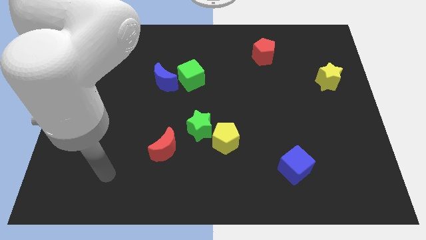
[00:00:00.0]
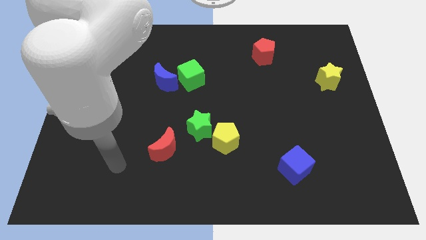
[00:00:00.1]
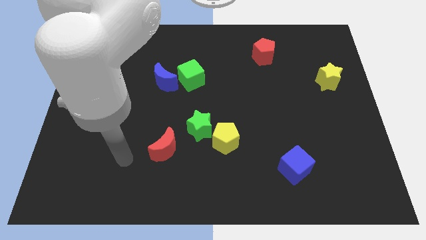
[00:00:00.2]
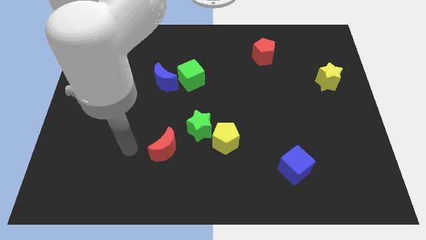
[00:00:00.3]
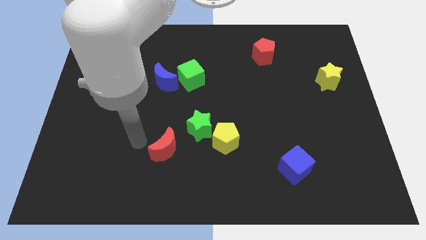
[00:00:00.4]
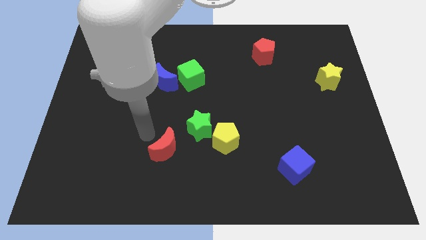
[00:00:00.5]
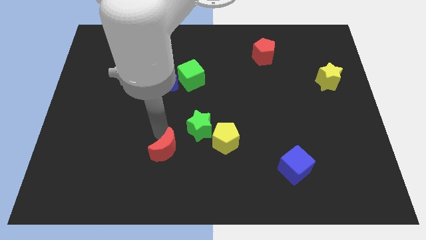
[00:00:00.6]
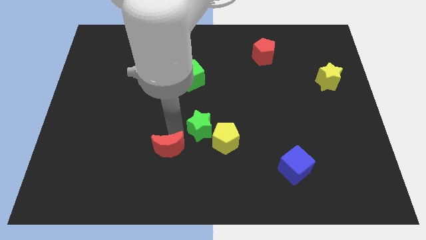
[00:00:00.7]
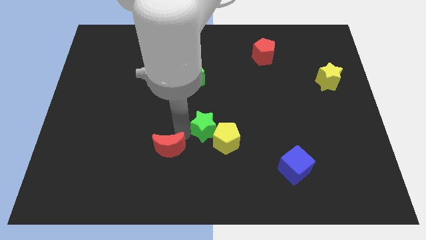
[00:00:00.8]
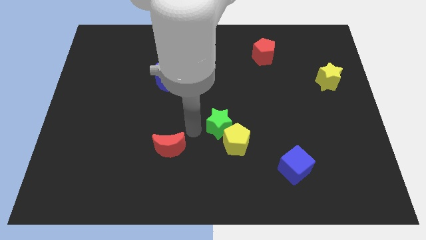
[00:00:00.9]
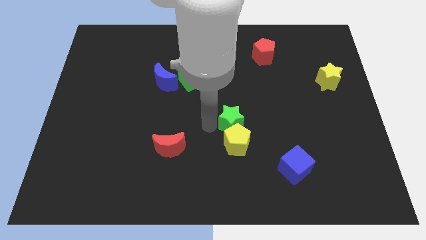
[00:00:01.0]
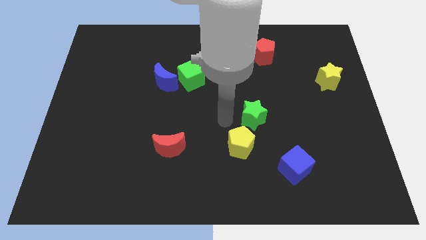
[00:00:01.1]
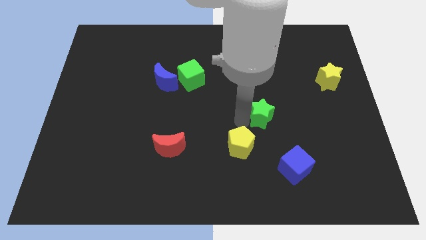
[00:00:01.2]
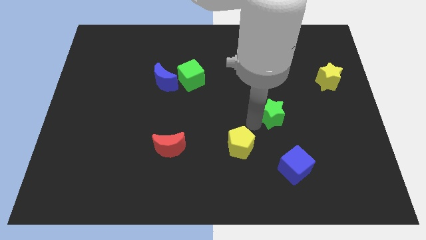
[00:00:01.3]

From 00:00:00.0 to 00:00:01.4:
move the yellow pentagon away from the green star

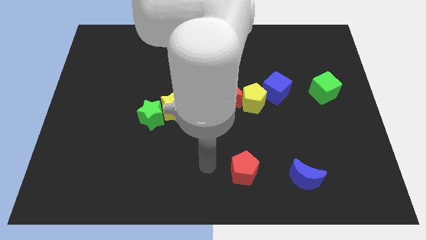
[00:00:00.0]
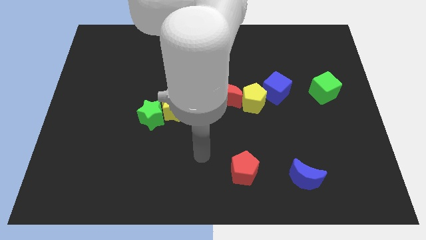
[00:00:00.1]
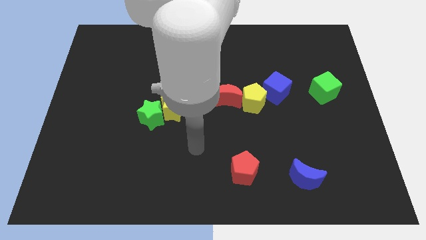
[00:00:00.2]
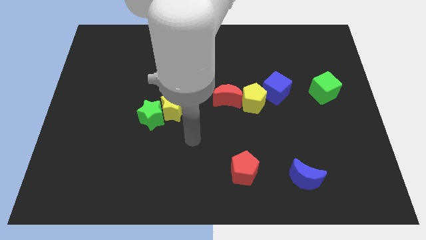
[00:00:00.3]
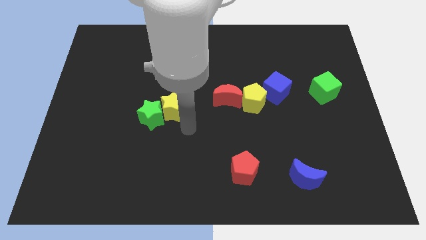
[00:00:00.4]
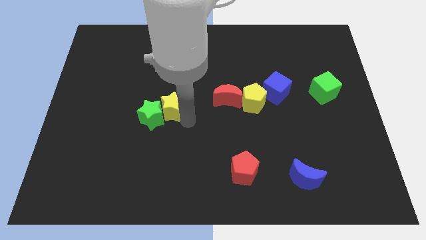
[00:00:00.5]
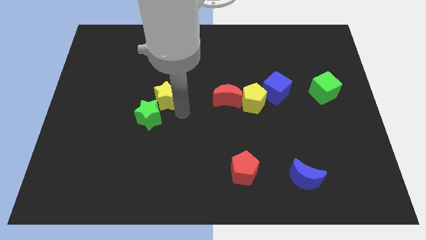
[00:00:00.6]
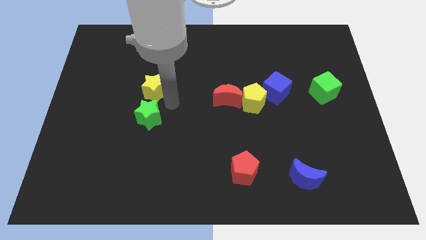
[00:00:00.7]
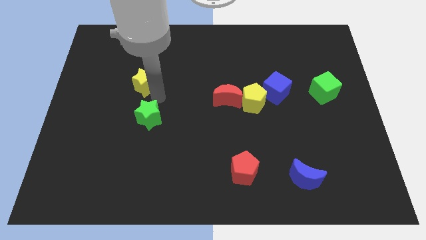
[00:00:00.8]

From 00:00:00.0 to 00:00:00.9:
pull the green star apart from the yellow star

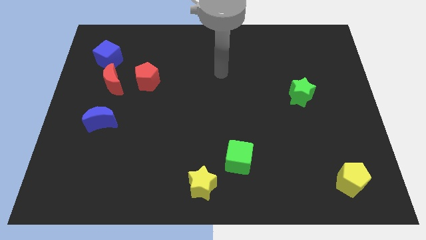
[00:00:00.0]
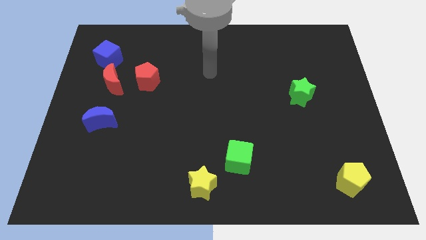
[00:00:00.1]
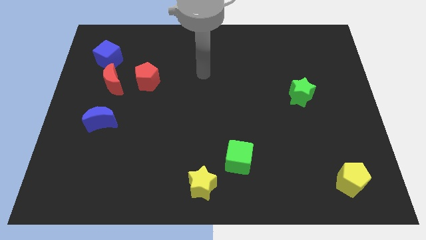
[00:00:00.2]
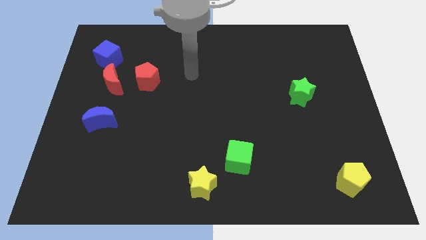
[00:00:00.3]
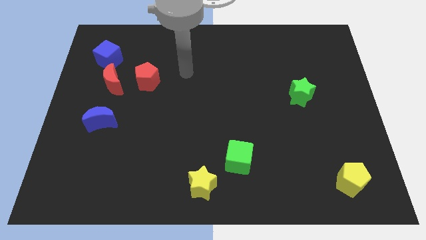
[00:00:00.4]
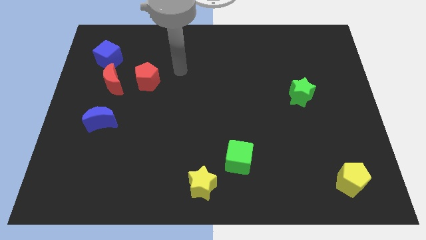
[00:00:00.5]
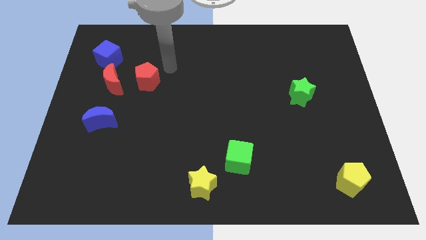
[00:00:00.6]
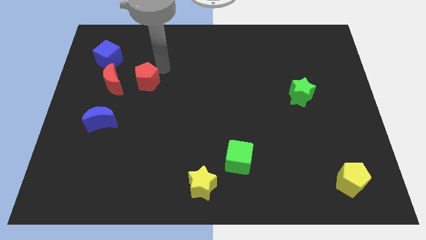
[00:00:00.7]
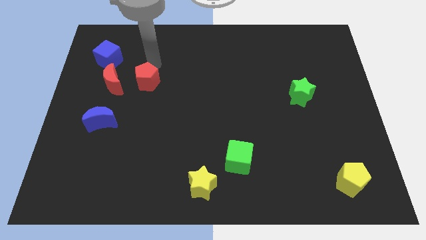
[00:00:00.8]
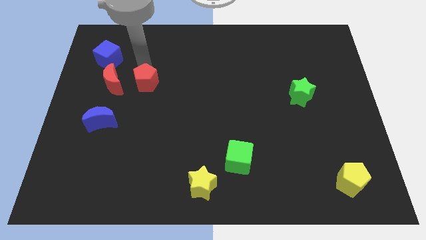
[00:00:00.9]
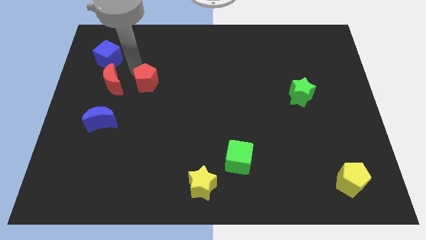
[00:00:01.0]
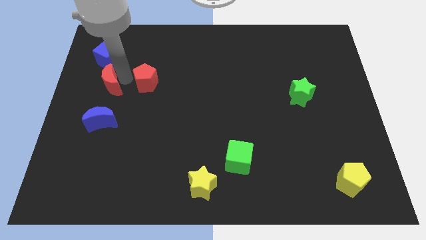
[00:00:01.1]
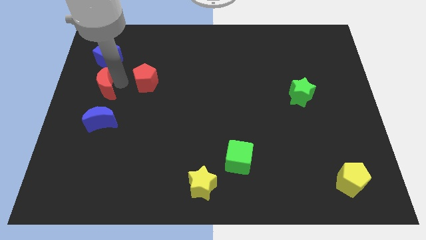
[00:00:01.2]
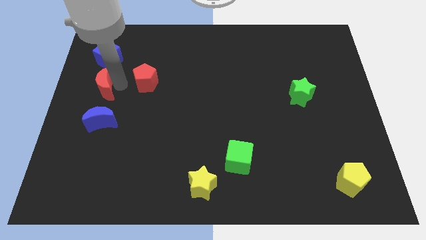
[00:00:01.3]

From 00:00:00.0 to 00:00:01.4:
pull the red pentagon apart from the red moon

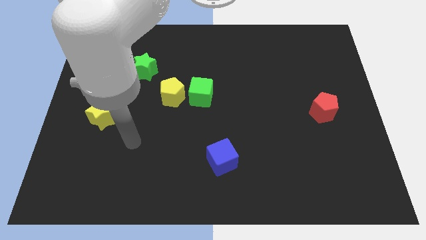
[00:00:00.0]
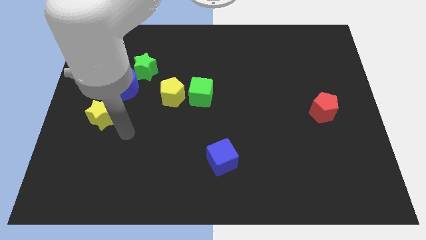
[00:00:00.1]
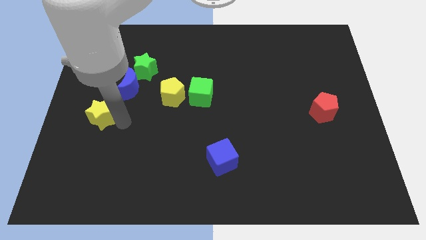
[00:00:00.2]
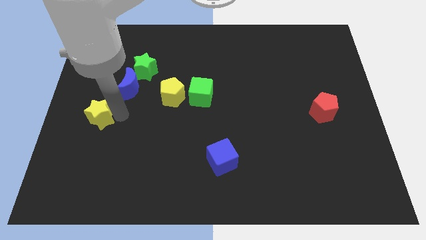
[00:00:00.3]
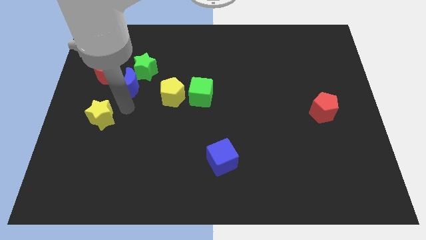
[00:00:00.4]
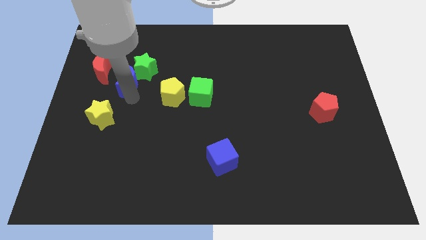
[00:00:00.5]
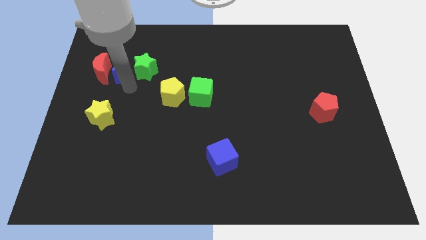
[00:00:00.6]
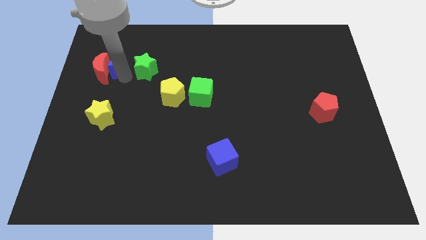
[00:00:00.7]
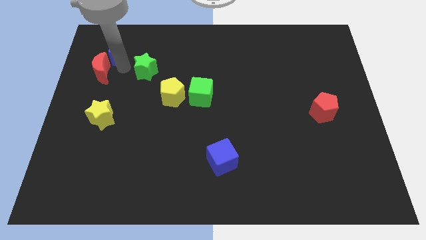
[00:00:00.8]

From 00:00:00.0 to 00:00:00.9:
separate the green star from the blue moon

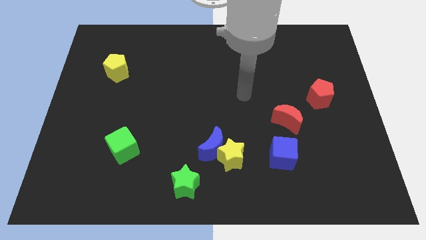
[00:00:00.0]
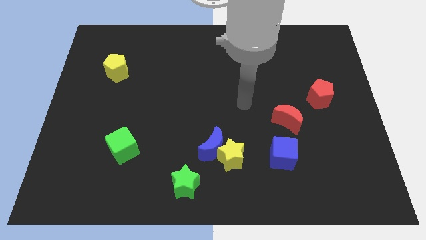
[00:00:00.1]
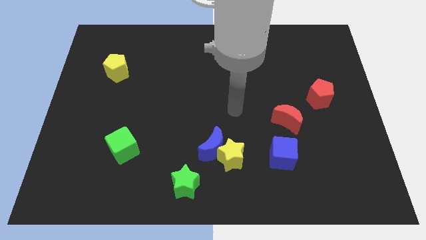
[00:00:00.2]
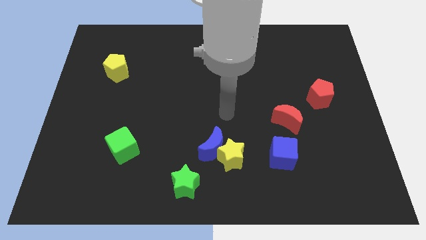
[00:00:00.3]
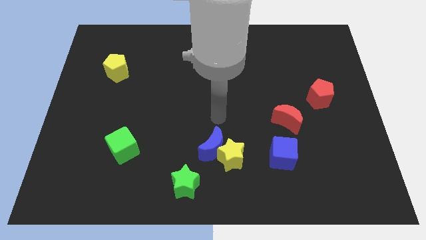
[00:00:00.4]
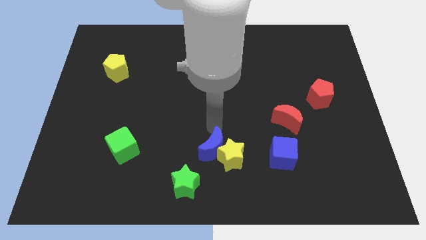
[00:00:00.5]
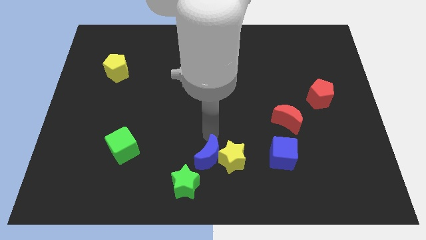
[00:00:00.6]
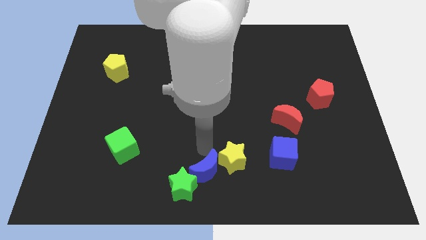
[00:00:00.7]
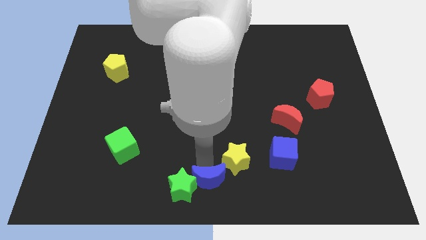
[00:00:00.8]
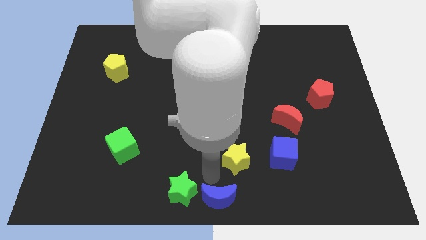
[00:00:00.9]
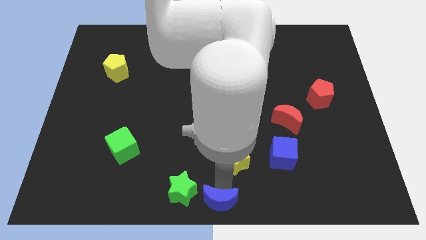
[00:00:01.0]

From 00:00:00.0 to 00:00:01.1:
pull the yellow star apart from the blue moon

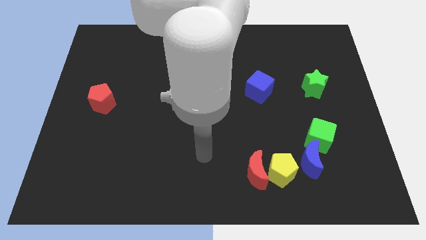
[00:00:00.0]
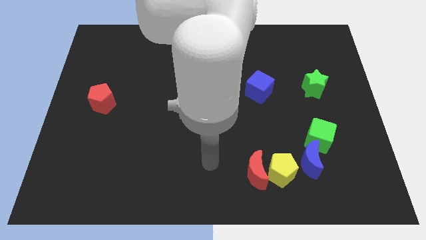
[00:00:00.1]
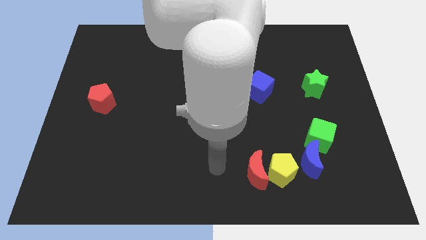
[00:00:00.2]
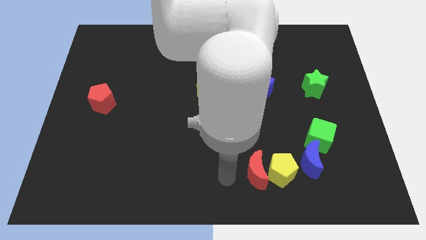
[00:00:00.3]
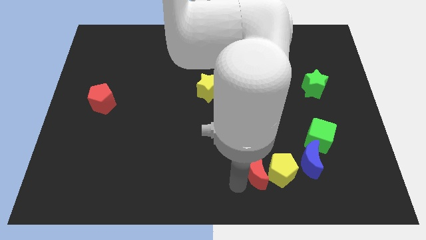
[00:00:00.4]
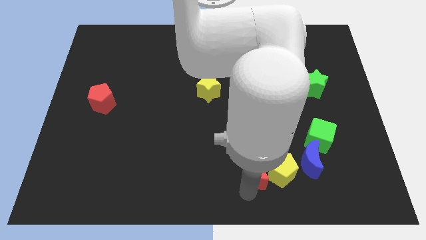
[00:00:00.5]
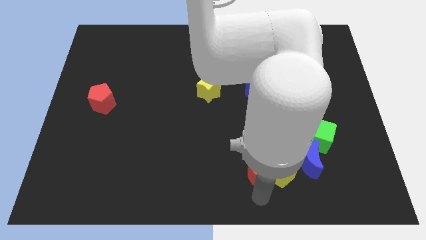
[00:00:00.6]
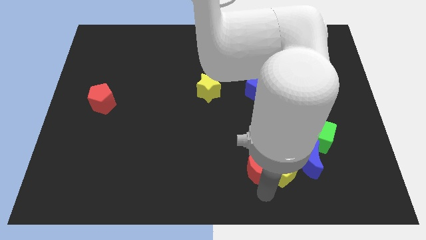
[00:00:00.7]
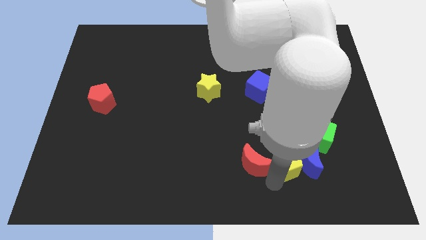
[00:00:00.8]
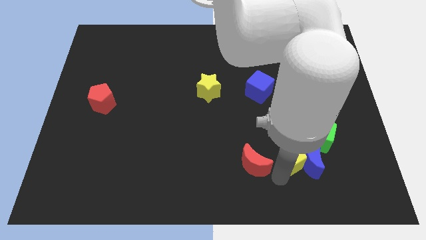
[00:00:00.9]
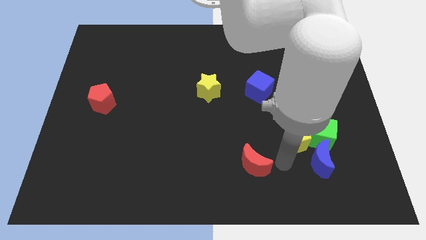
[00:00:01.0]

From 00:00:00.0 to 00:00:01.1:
separate the red moon from the yellow pentagon

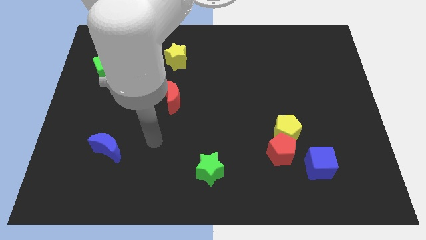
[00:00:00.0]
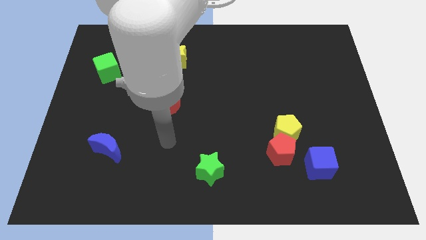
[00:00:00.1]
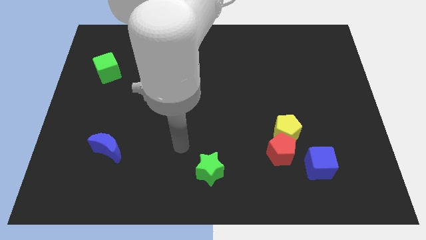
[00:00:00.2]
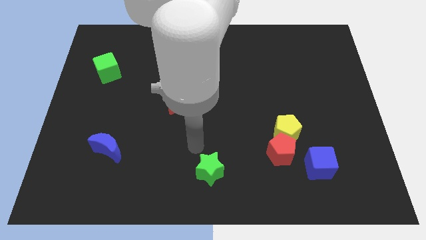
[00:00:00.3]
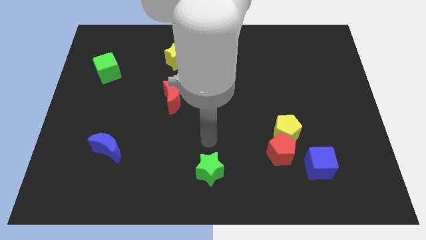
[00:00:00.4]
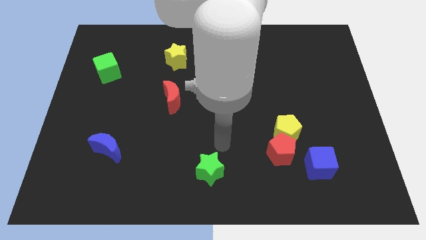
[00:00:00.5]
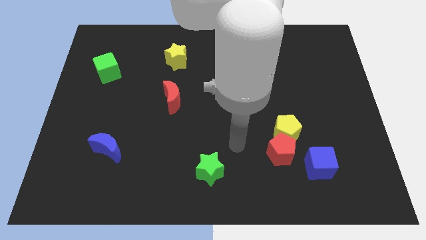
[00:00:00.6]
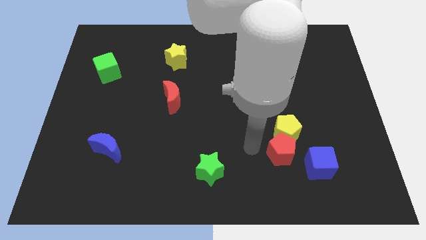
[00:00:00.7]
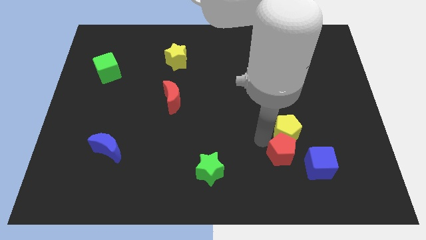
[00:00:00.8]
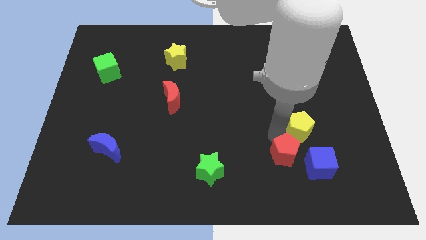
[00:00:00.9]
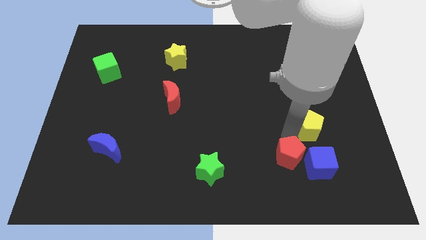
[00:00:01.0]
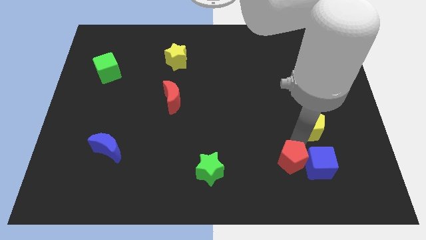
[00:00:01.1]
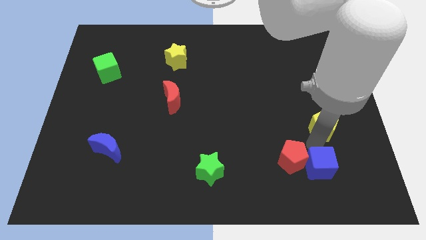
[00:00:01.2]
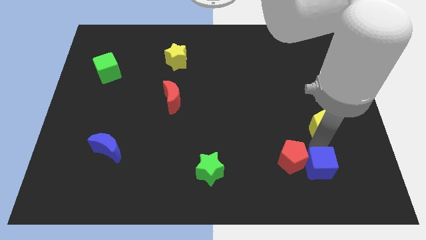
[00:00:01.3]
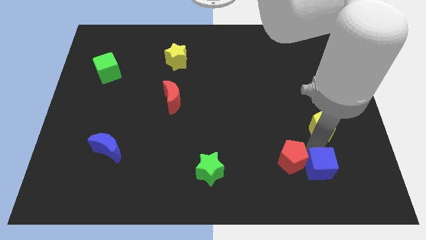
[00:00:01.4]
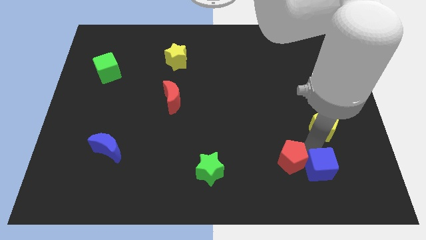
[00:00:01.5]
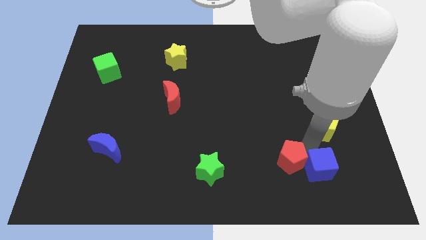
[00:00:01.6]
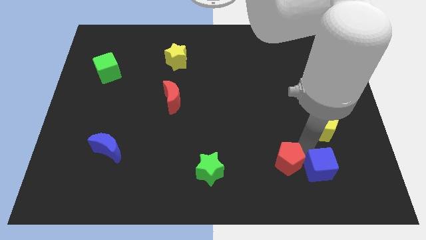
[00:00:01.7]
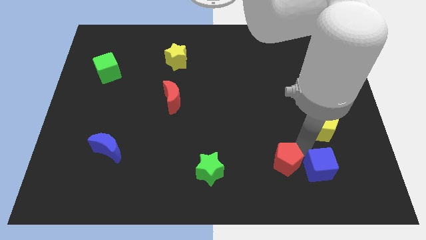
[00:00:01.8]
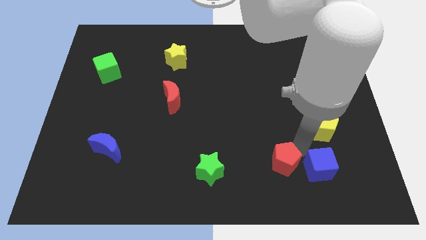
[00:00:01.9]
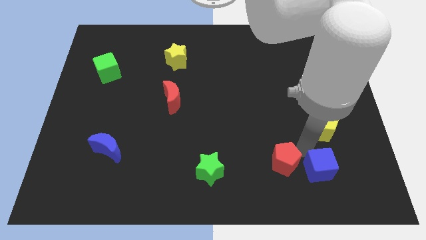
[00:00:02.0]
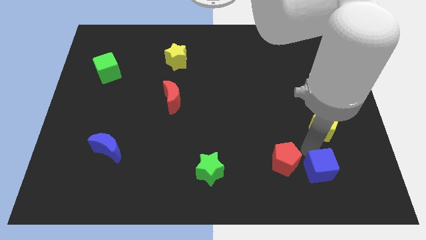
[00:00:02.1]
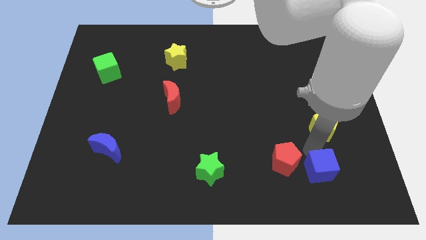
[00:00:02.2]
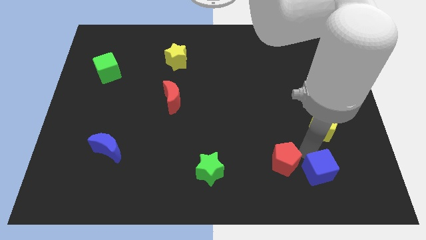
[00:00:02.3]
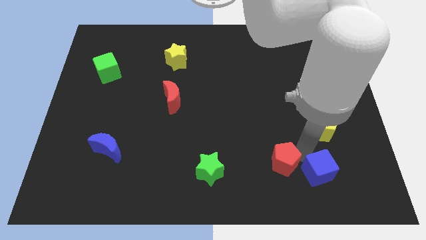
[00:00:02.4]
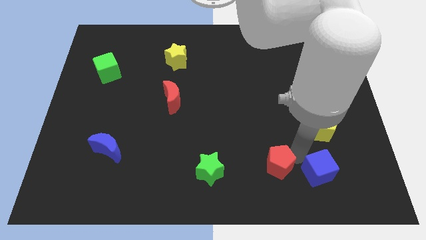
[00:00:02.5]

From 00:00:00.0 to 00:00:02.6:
move the red pentagon away from the yellow pentagon and blue cube
